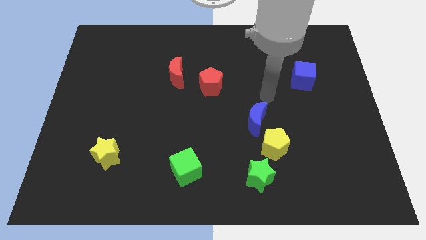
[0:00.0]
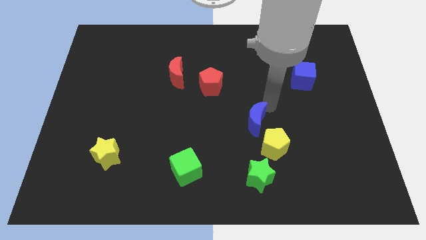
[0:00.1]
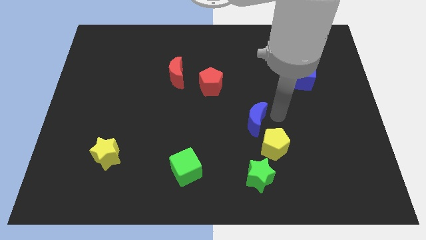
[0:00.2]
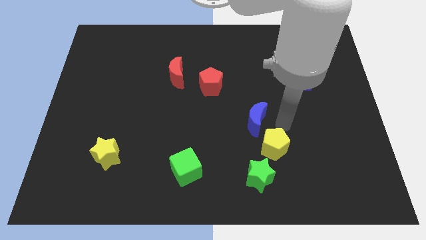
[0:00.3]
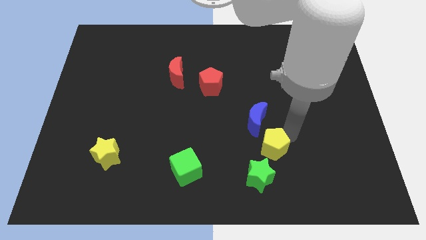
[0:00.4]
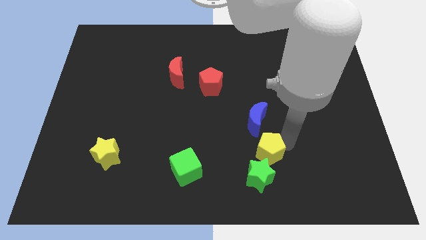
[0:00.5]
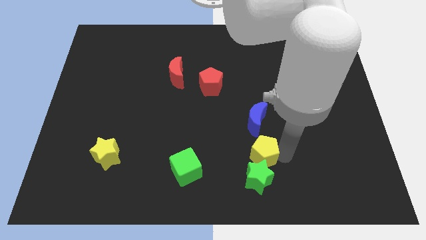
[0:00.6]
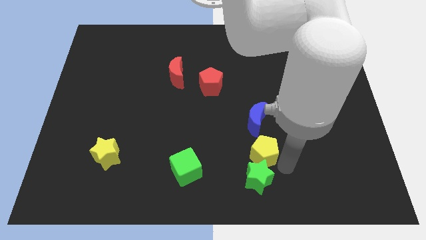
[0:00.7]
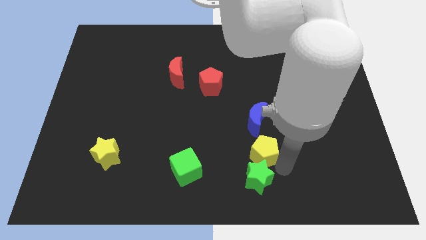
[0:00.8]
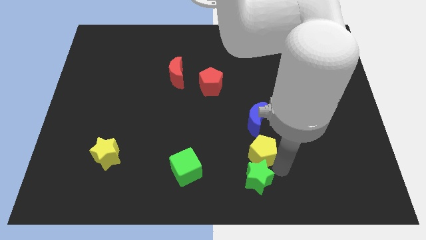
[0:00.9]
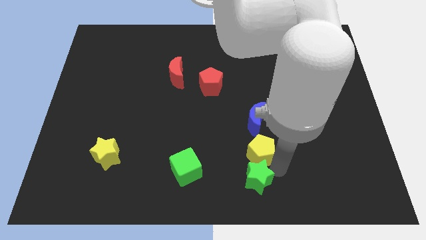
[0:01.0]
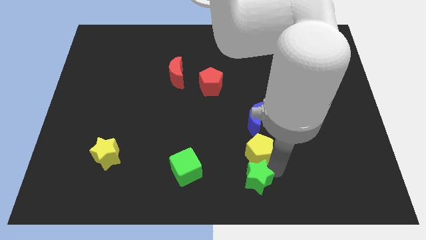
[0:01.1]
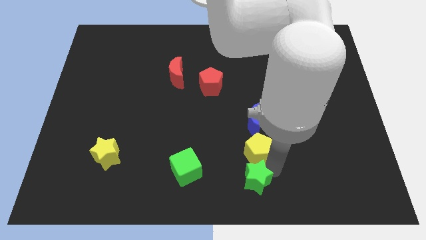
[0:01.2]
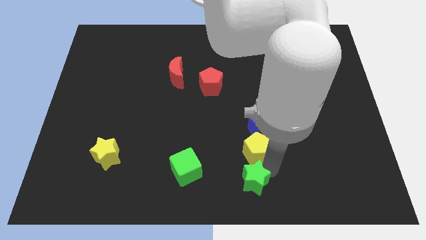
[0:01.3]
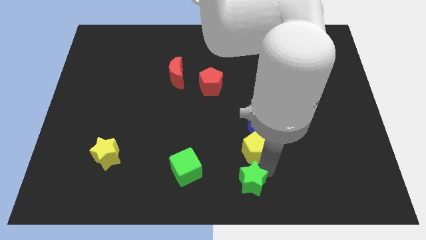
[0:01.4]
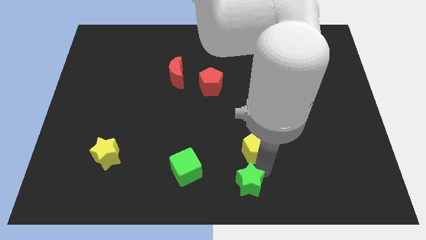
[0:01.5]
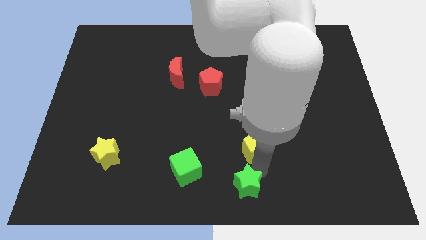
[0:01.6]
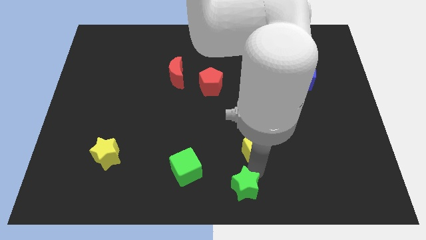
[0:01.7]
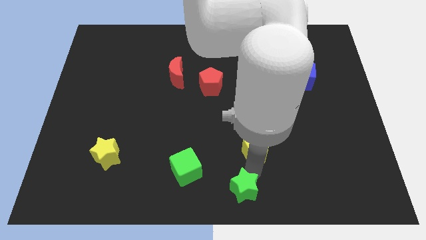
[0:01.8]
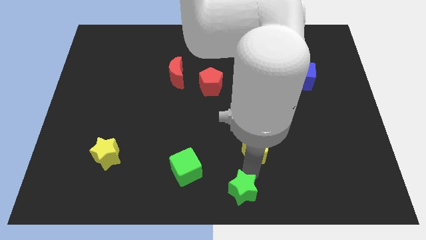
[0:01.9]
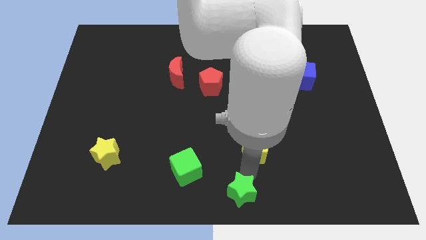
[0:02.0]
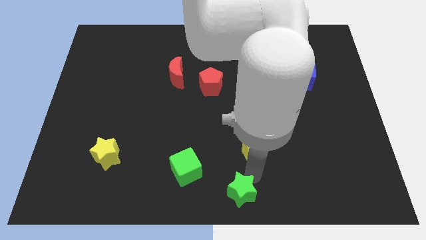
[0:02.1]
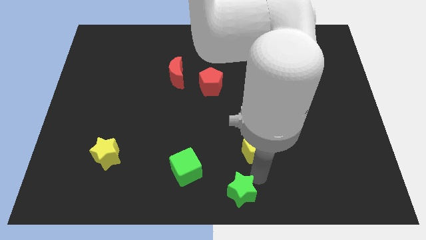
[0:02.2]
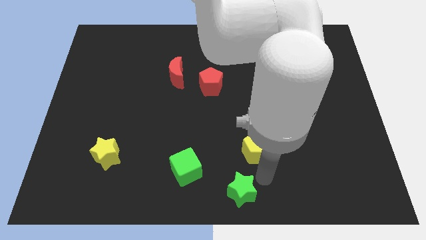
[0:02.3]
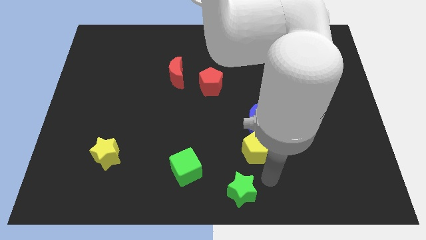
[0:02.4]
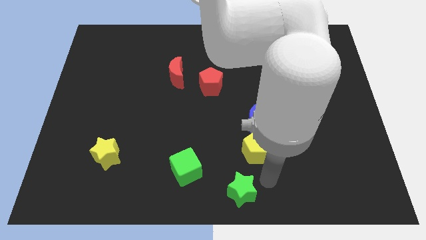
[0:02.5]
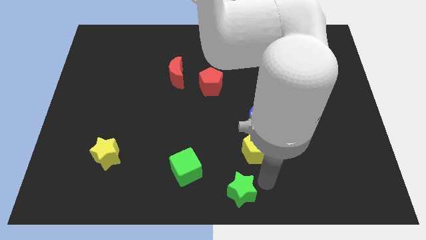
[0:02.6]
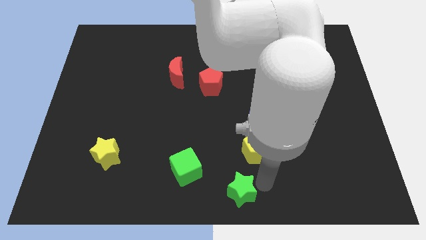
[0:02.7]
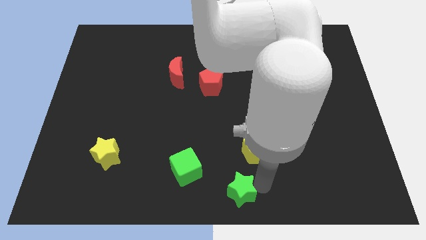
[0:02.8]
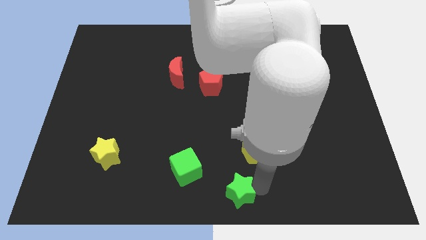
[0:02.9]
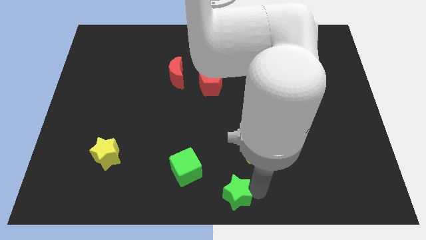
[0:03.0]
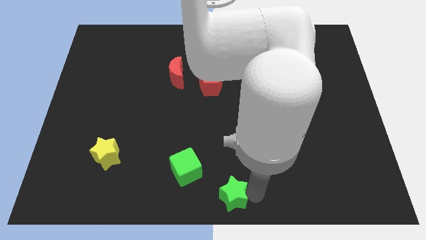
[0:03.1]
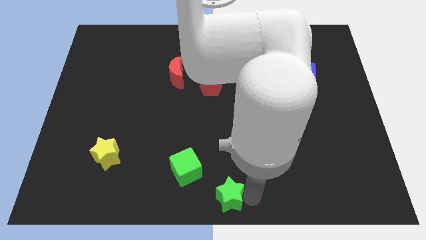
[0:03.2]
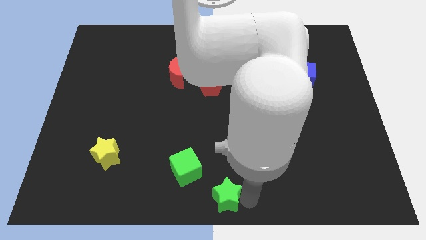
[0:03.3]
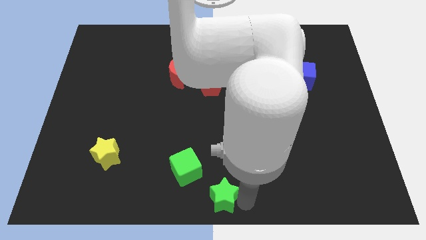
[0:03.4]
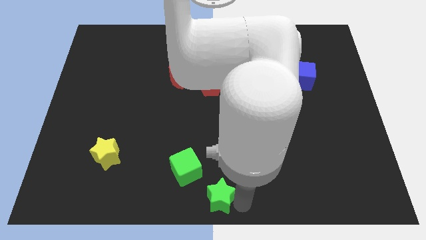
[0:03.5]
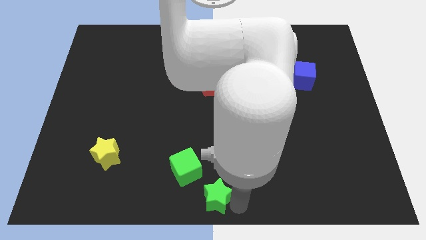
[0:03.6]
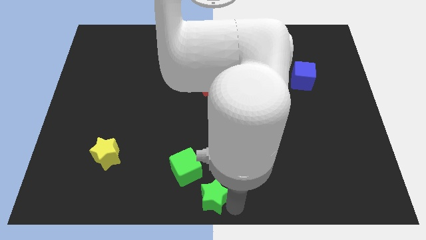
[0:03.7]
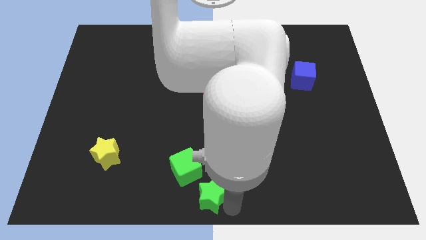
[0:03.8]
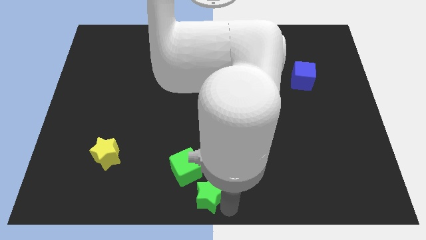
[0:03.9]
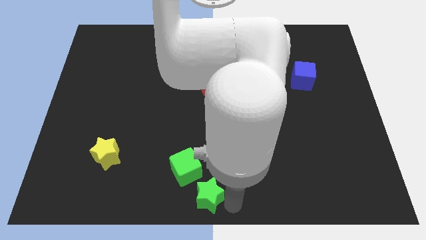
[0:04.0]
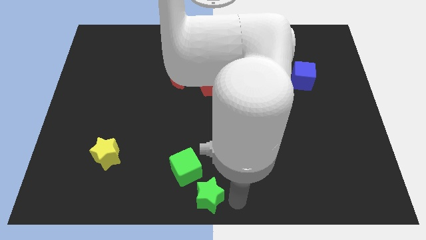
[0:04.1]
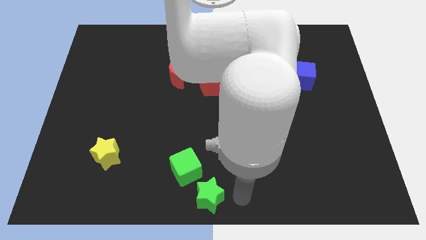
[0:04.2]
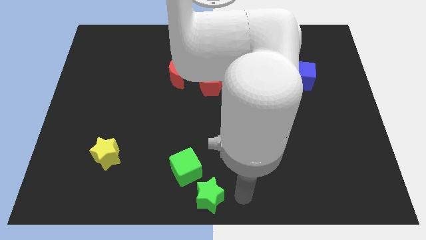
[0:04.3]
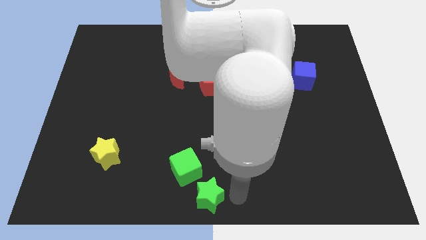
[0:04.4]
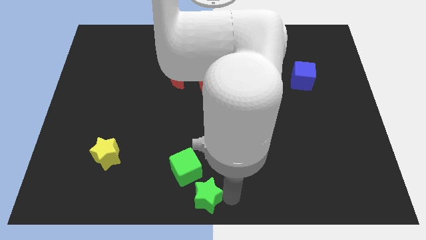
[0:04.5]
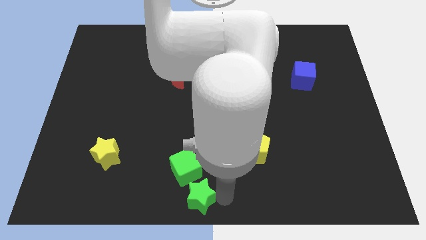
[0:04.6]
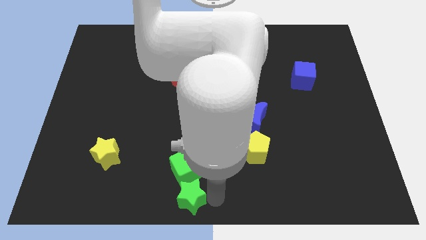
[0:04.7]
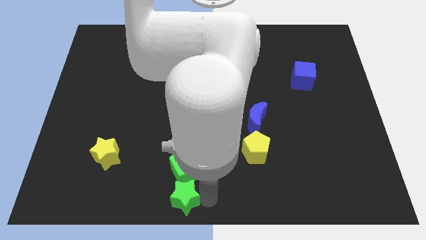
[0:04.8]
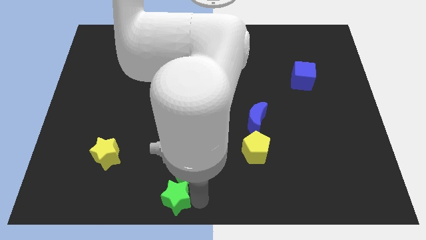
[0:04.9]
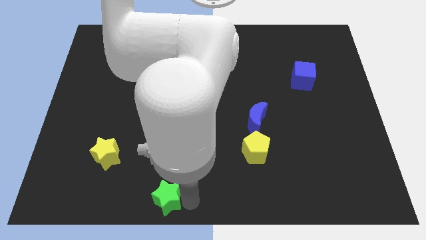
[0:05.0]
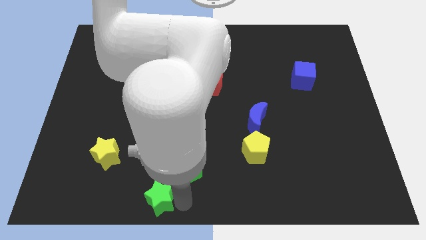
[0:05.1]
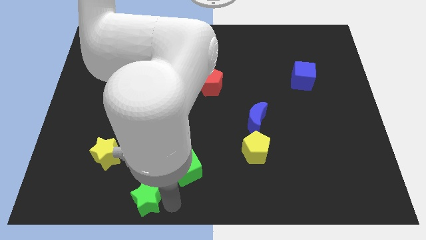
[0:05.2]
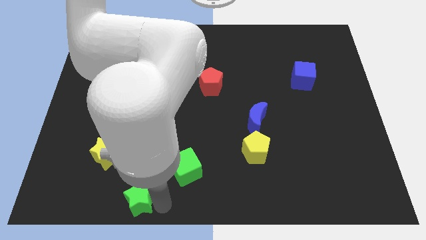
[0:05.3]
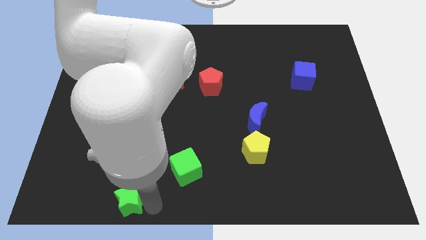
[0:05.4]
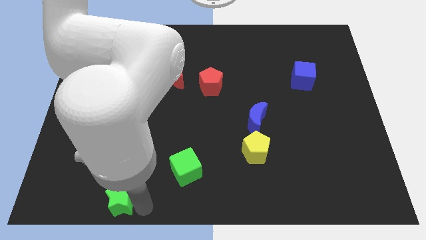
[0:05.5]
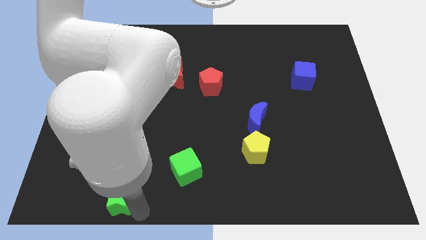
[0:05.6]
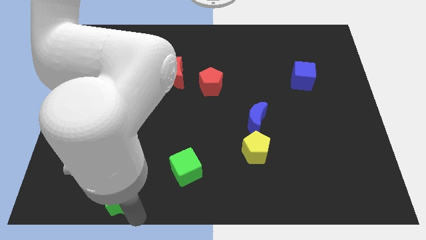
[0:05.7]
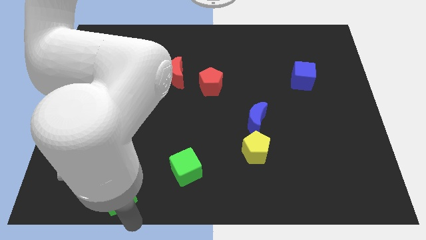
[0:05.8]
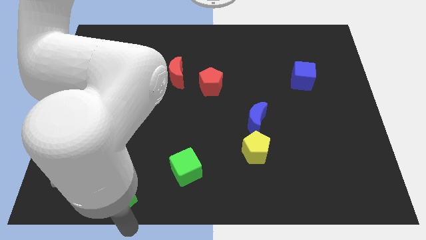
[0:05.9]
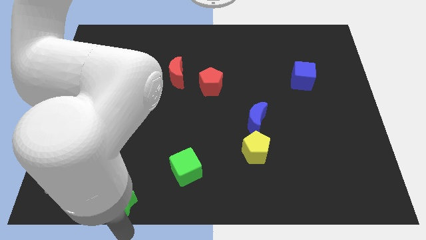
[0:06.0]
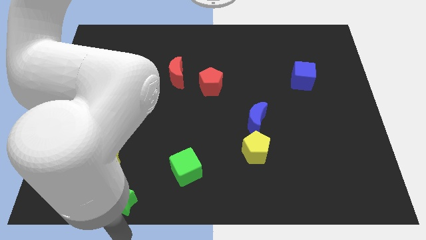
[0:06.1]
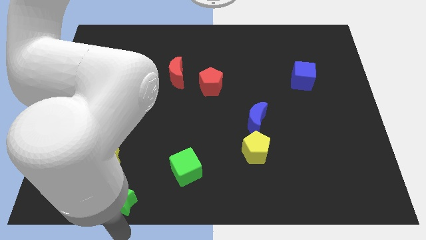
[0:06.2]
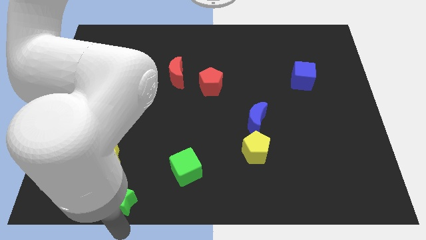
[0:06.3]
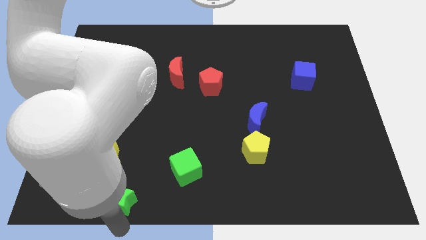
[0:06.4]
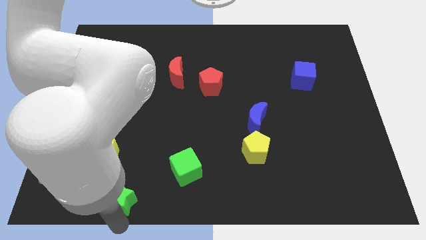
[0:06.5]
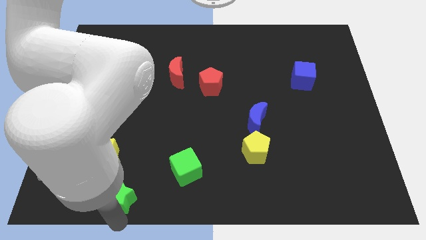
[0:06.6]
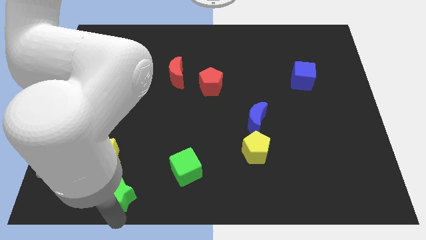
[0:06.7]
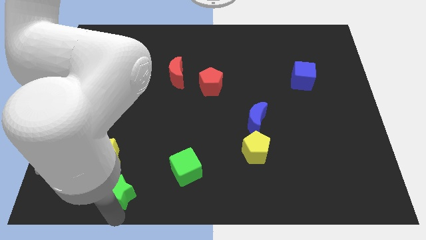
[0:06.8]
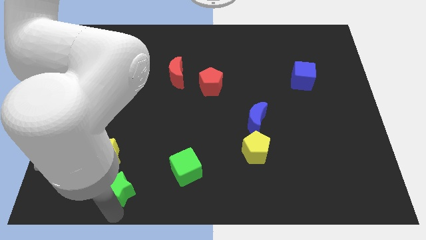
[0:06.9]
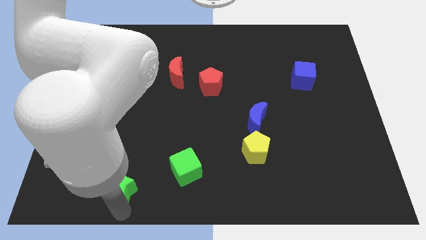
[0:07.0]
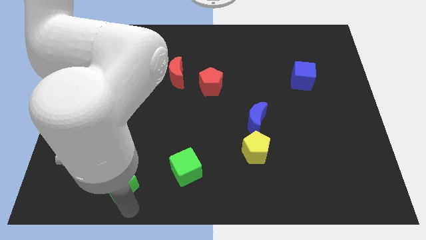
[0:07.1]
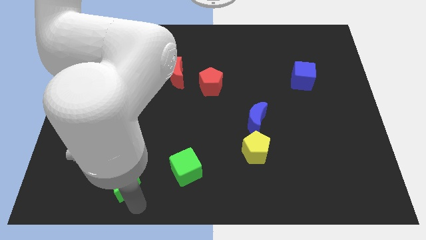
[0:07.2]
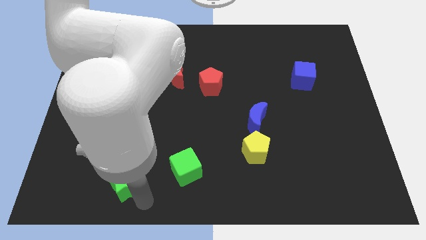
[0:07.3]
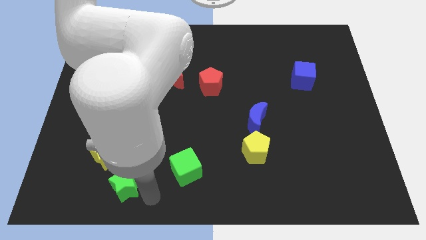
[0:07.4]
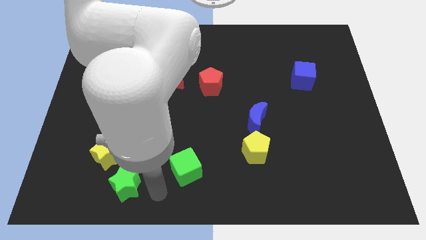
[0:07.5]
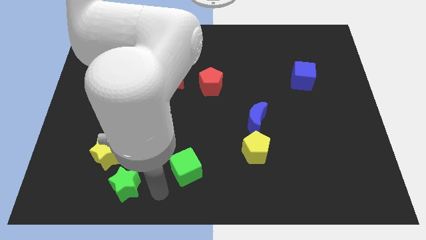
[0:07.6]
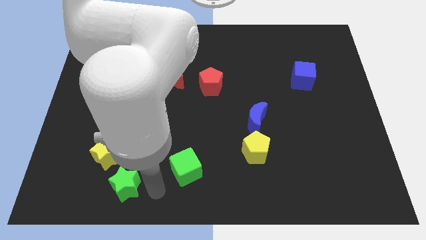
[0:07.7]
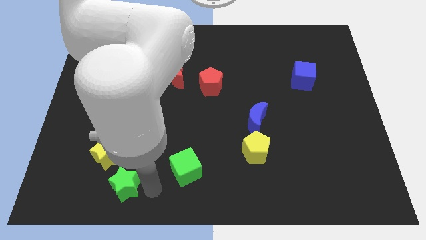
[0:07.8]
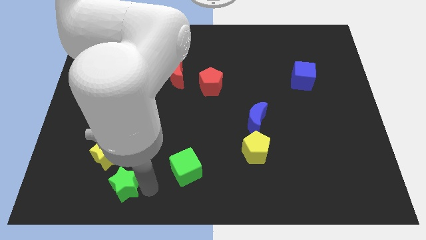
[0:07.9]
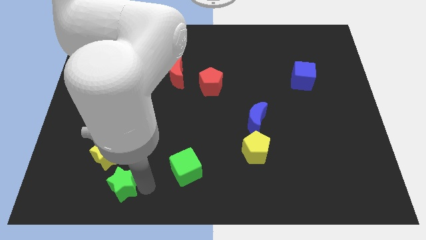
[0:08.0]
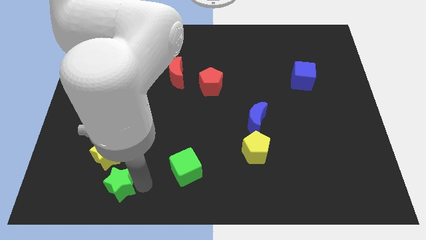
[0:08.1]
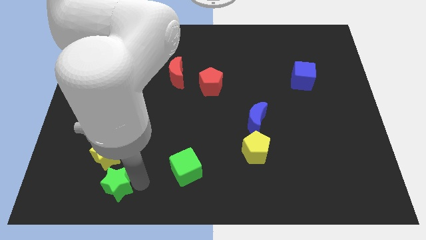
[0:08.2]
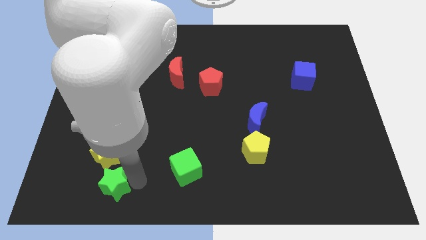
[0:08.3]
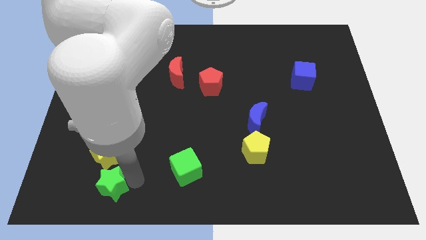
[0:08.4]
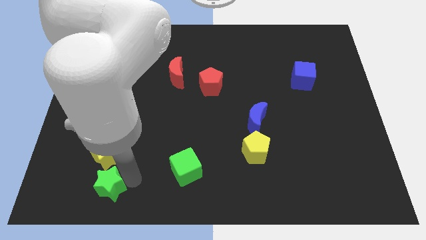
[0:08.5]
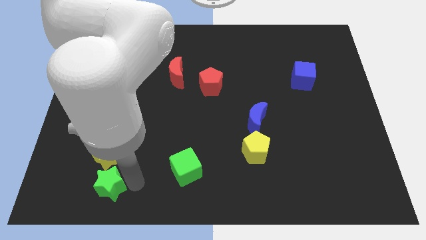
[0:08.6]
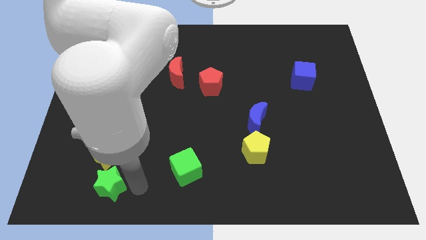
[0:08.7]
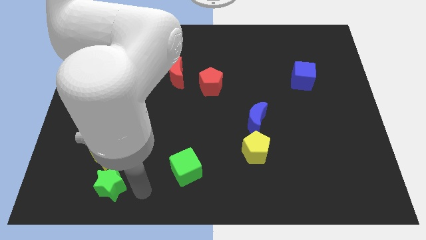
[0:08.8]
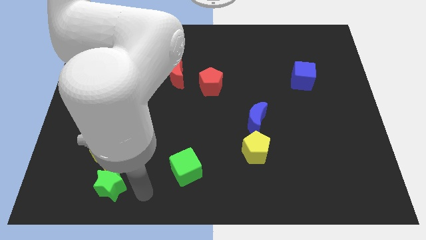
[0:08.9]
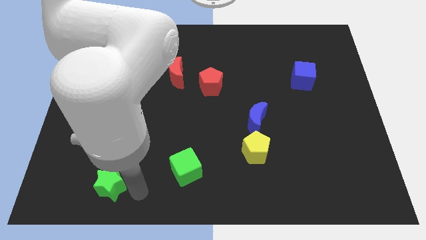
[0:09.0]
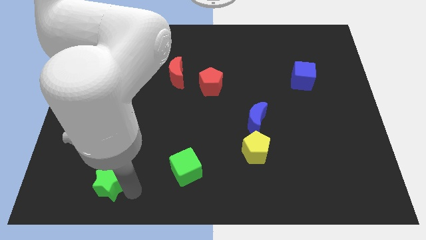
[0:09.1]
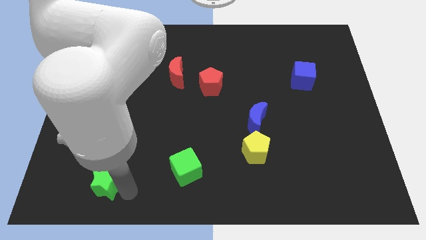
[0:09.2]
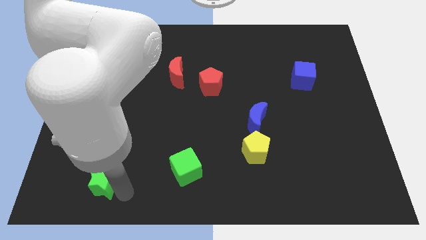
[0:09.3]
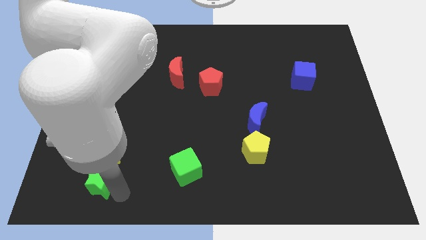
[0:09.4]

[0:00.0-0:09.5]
slide the green star to the bottom left side of the yellow star
